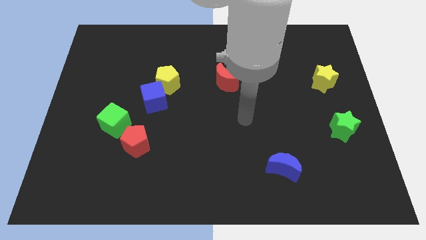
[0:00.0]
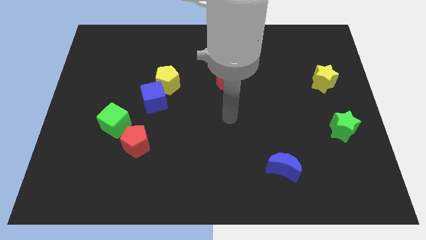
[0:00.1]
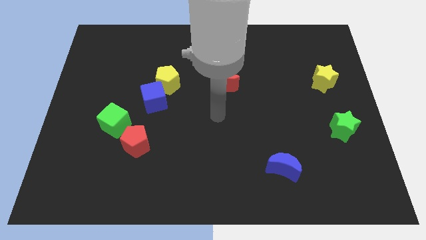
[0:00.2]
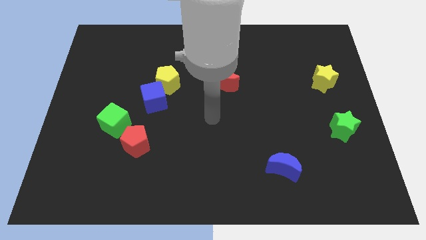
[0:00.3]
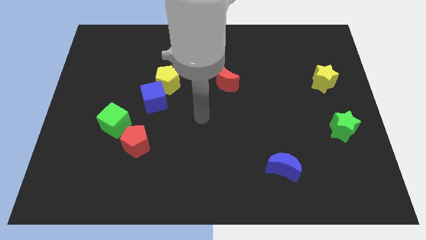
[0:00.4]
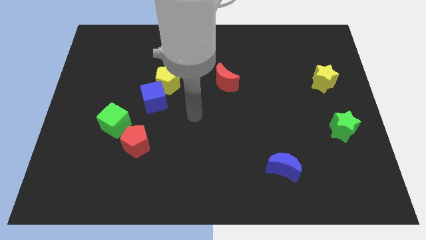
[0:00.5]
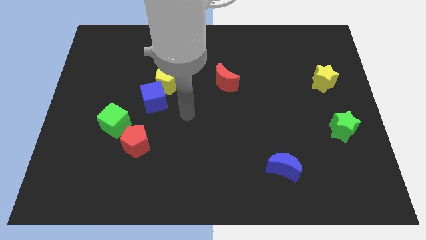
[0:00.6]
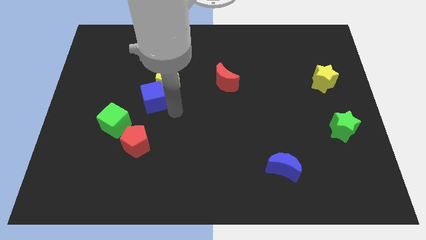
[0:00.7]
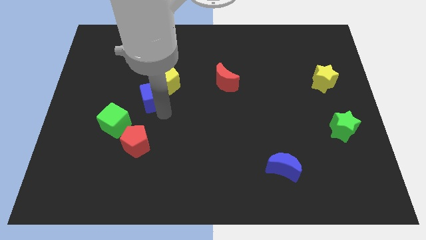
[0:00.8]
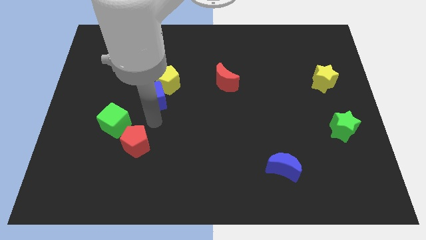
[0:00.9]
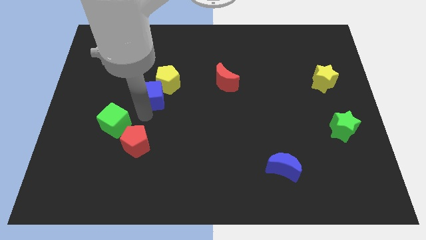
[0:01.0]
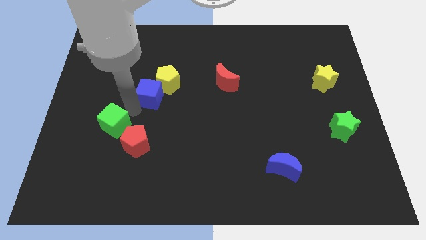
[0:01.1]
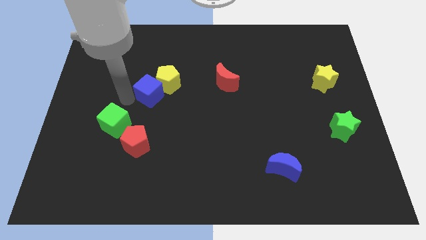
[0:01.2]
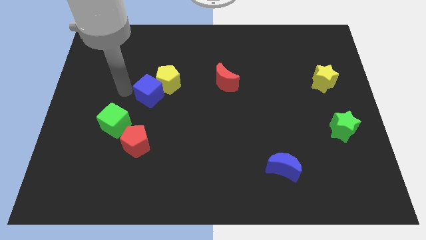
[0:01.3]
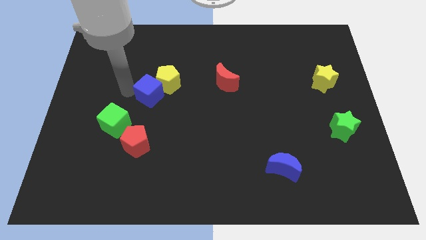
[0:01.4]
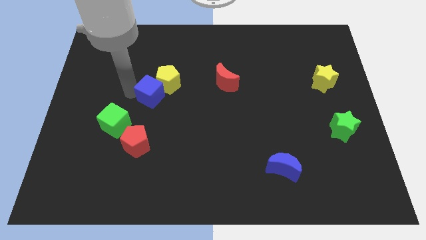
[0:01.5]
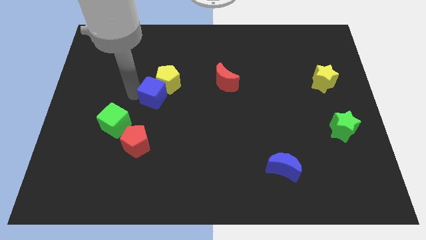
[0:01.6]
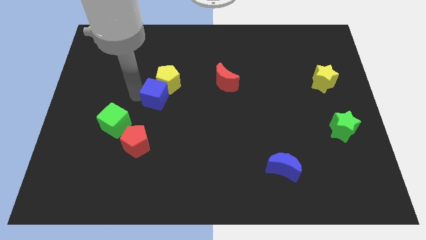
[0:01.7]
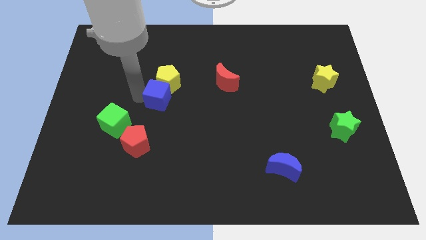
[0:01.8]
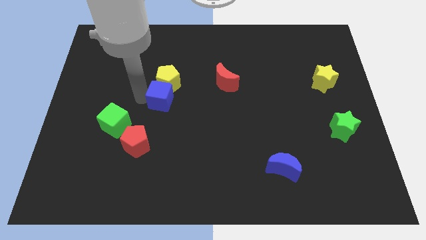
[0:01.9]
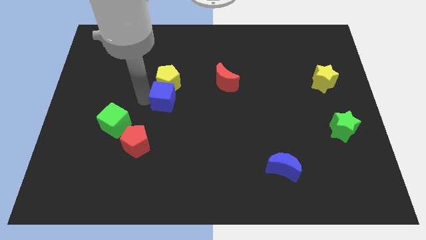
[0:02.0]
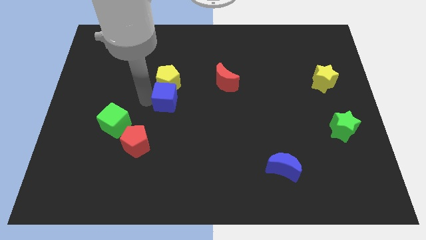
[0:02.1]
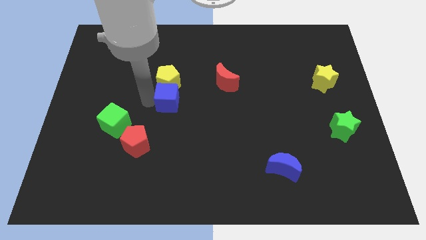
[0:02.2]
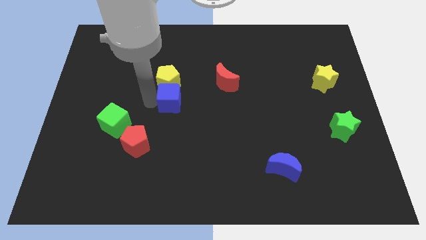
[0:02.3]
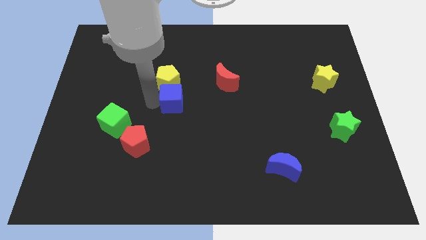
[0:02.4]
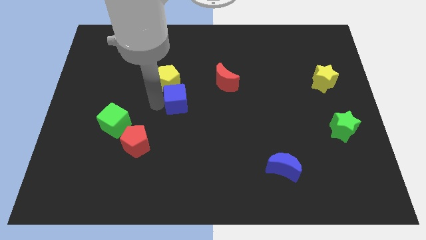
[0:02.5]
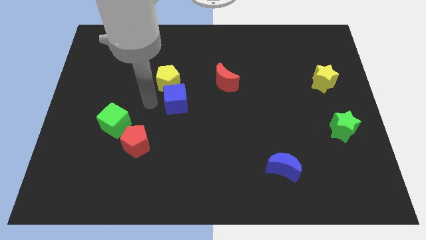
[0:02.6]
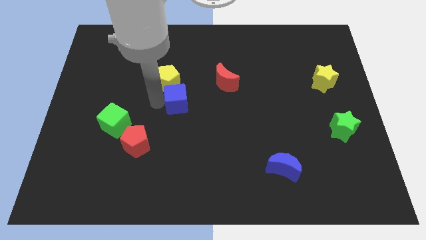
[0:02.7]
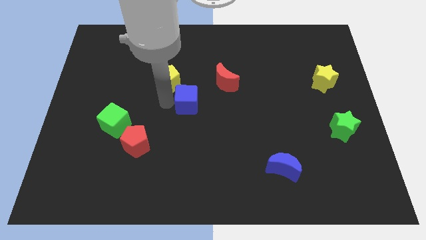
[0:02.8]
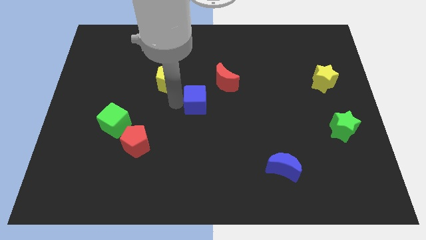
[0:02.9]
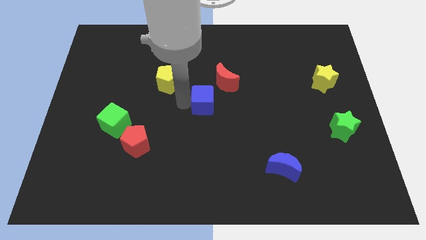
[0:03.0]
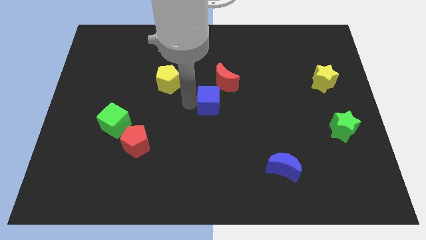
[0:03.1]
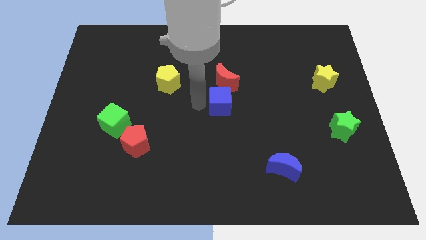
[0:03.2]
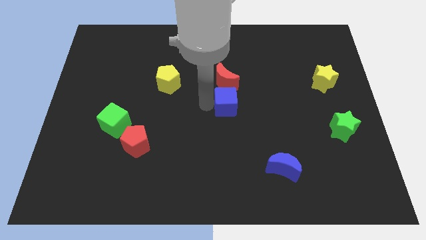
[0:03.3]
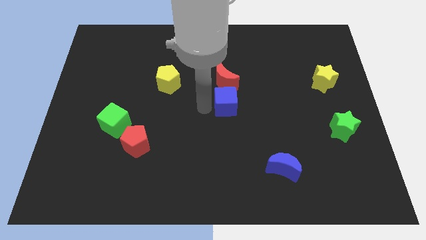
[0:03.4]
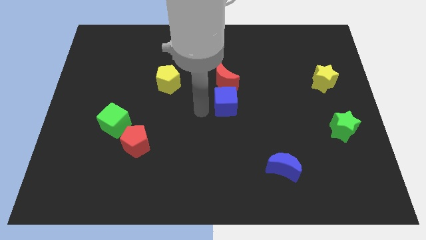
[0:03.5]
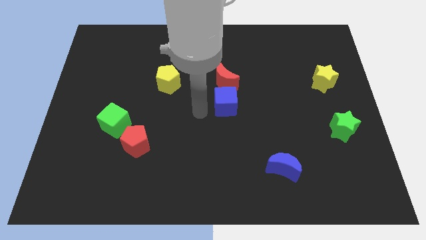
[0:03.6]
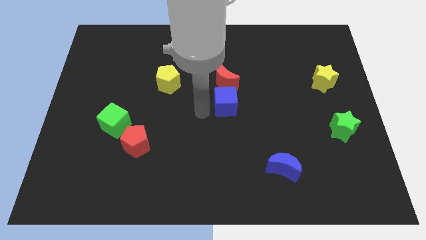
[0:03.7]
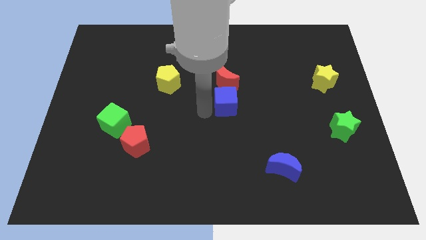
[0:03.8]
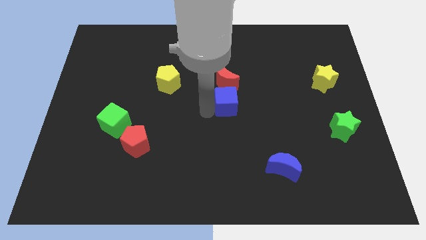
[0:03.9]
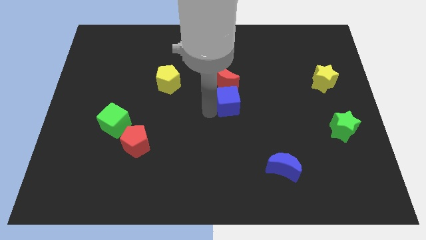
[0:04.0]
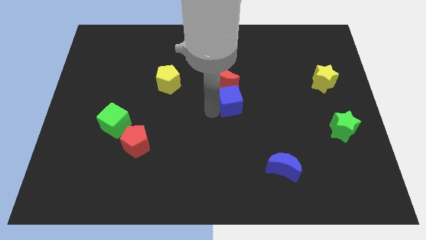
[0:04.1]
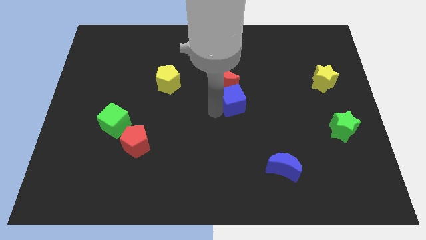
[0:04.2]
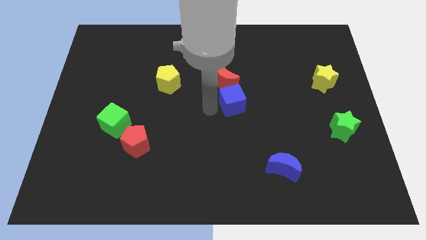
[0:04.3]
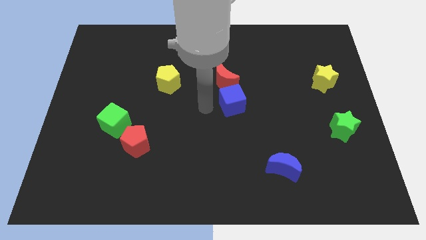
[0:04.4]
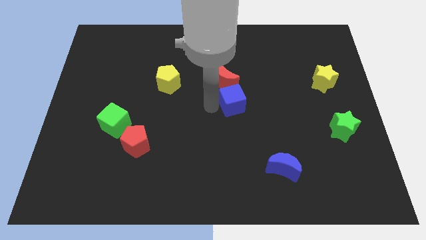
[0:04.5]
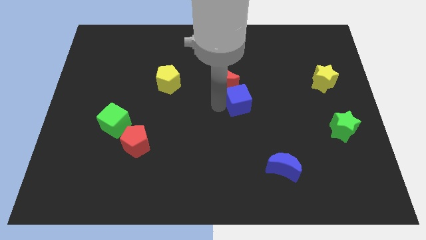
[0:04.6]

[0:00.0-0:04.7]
push the blue cube right

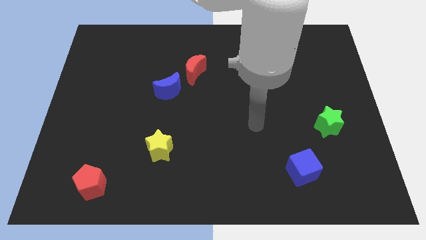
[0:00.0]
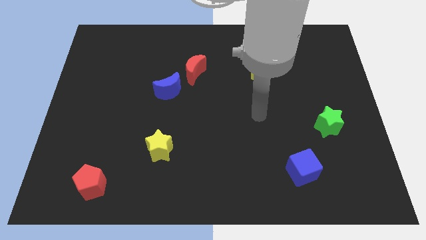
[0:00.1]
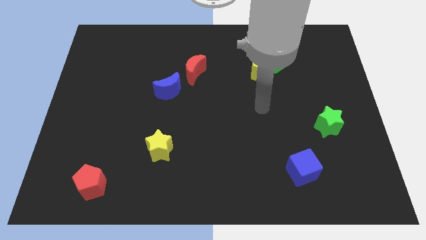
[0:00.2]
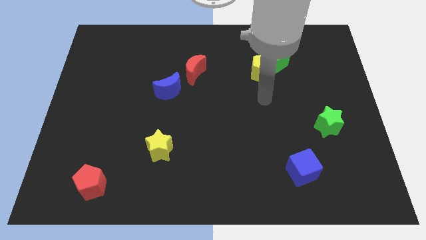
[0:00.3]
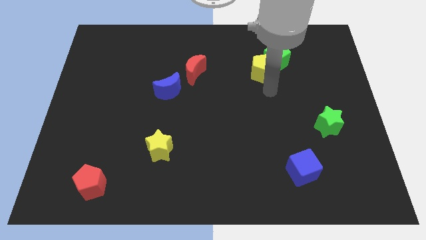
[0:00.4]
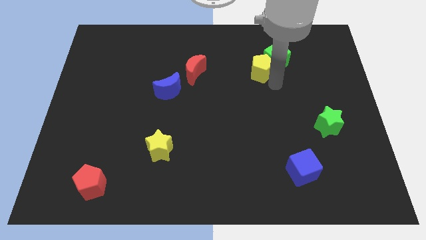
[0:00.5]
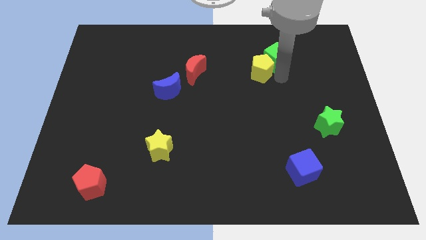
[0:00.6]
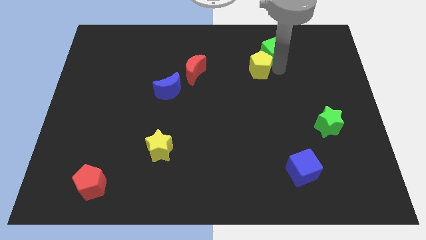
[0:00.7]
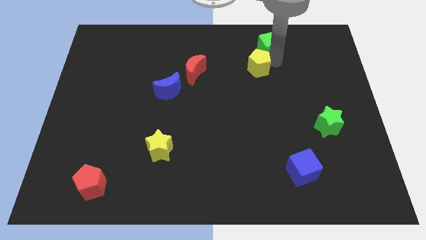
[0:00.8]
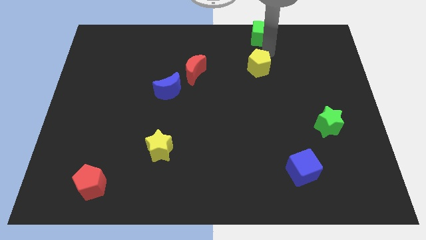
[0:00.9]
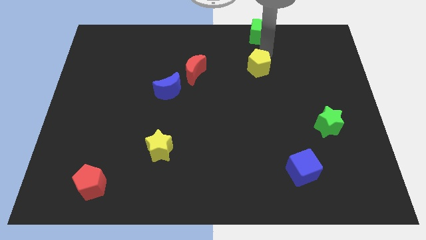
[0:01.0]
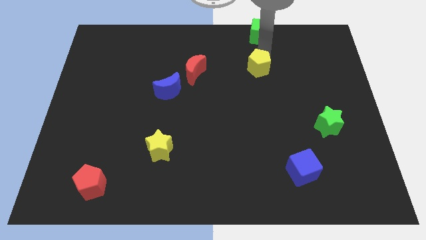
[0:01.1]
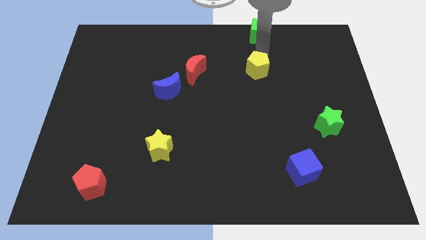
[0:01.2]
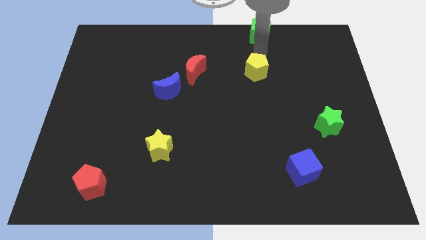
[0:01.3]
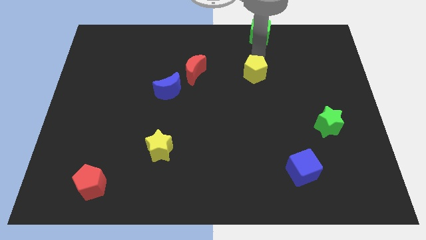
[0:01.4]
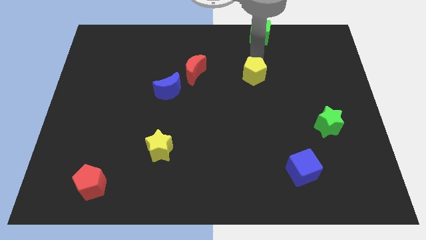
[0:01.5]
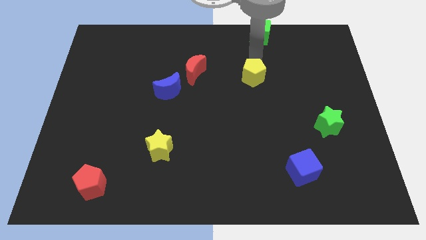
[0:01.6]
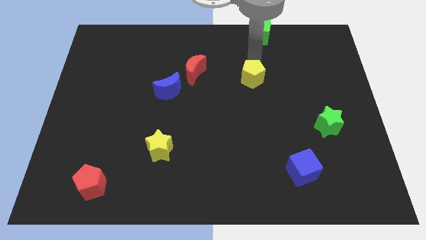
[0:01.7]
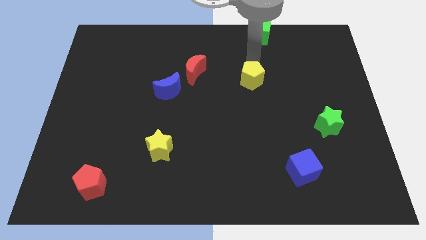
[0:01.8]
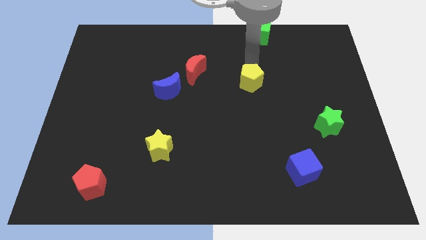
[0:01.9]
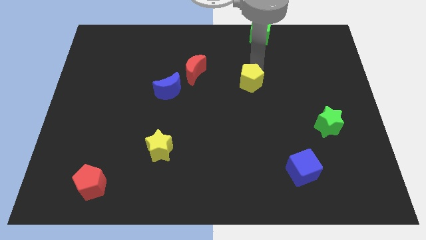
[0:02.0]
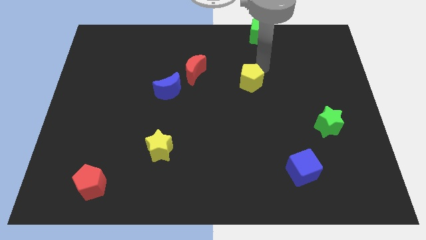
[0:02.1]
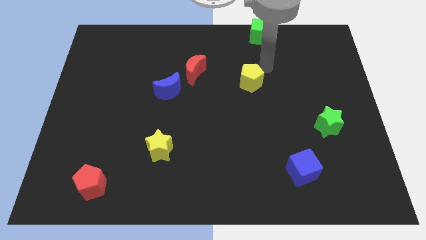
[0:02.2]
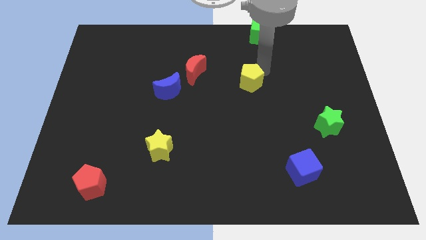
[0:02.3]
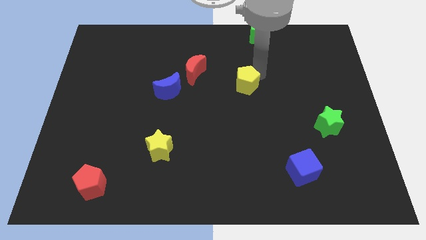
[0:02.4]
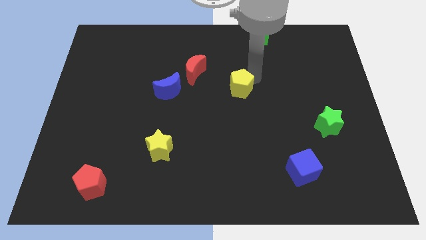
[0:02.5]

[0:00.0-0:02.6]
push the yellow pentagon a little bit down and to the left

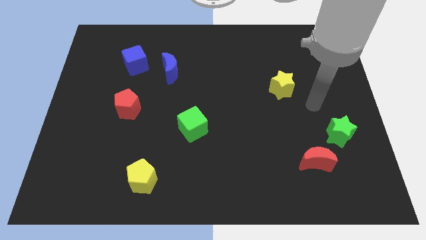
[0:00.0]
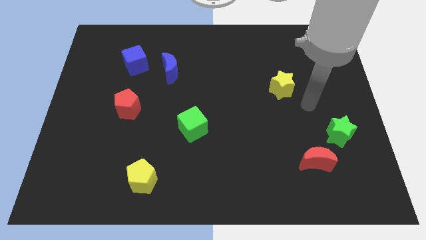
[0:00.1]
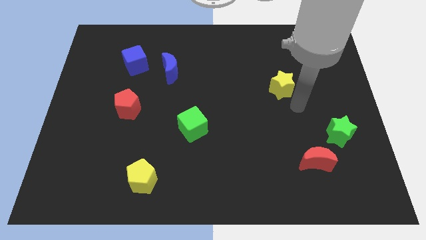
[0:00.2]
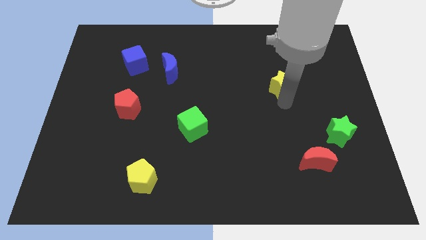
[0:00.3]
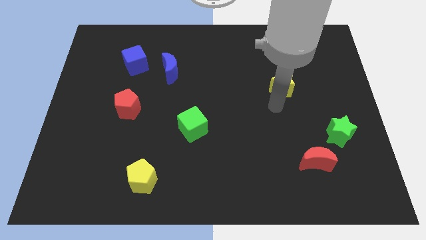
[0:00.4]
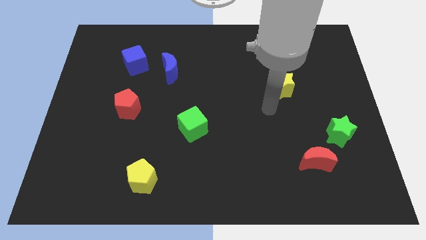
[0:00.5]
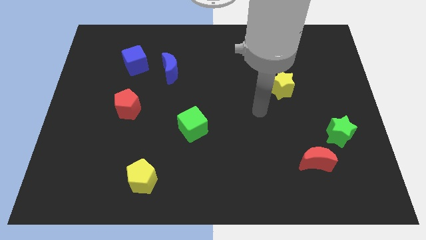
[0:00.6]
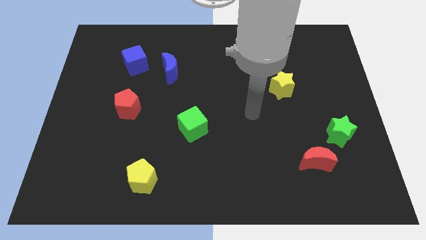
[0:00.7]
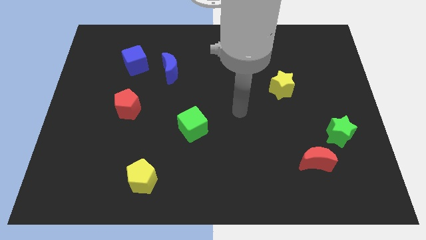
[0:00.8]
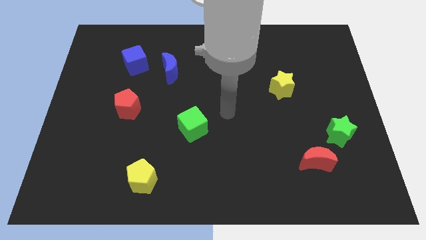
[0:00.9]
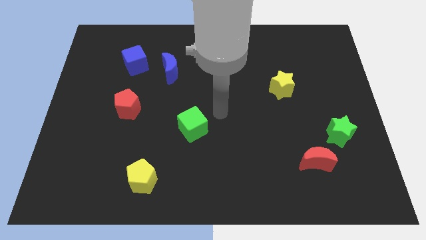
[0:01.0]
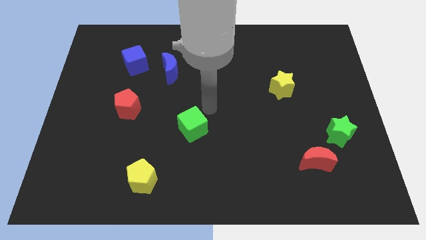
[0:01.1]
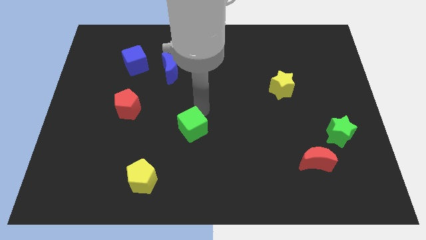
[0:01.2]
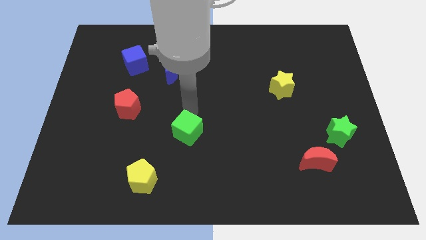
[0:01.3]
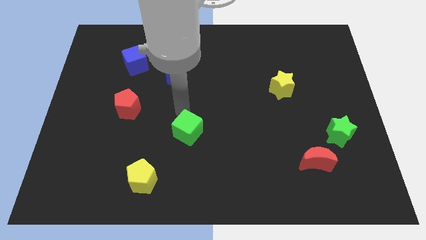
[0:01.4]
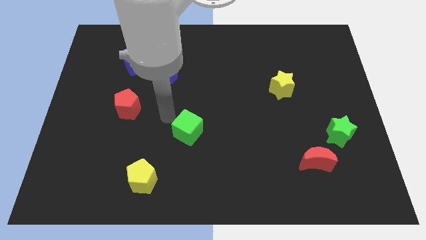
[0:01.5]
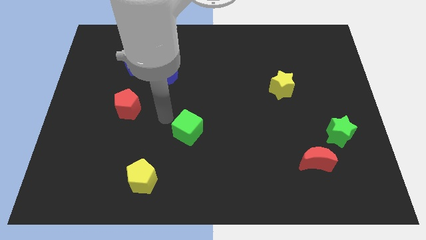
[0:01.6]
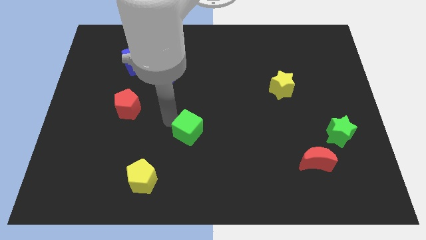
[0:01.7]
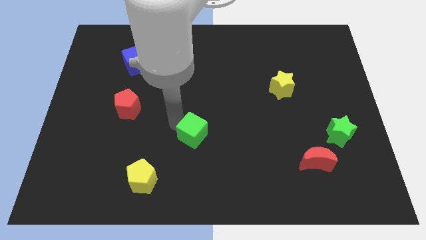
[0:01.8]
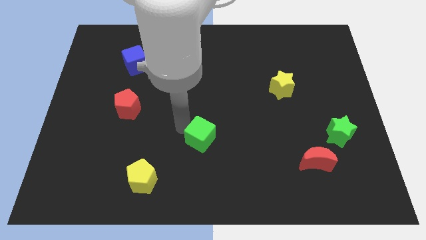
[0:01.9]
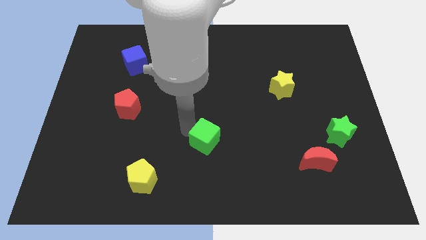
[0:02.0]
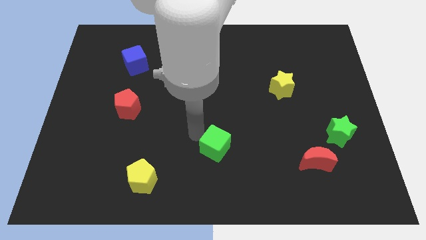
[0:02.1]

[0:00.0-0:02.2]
slide the green cube slightly down and to the right
